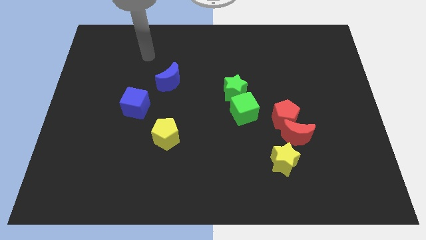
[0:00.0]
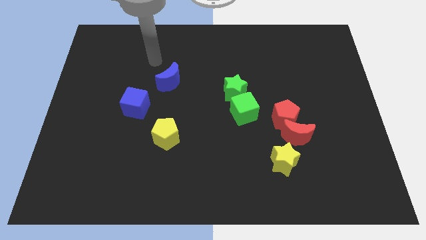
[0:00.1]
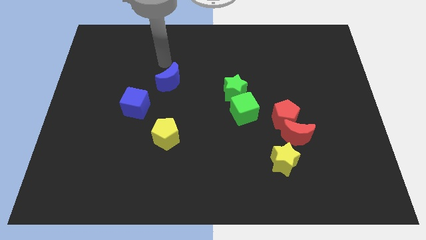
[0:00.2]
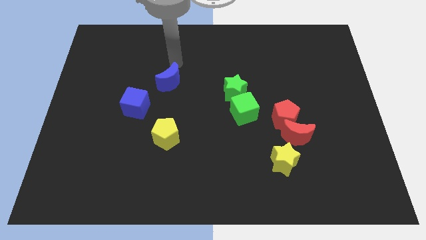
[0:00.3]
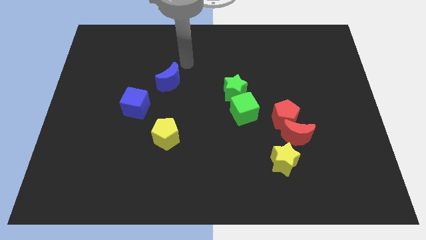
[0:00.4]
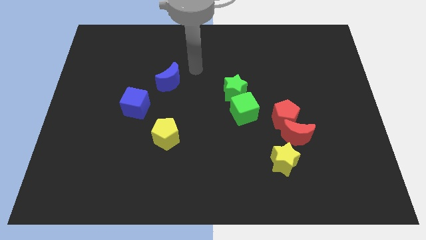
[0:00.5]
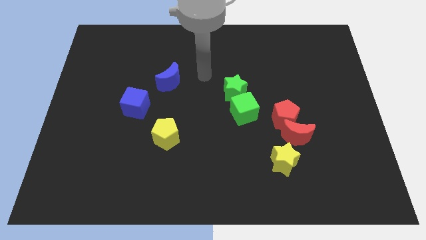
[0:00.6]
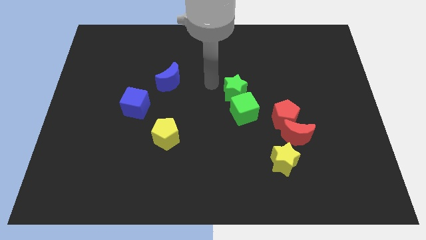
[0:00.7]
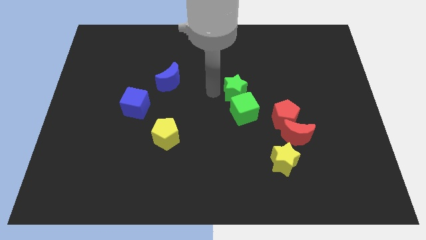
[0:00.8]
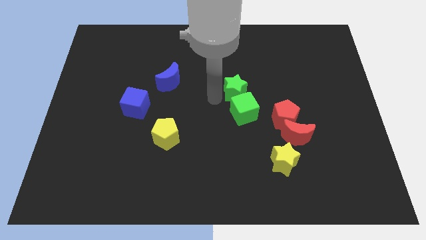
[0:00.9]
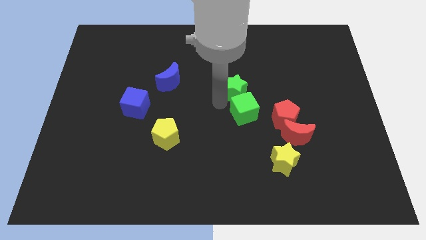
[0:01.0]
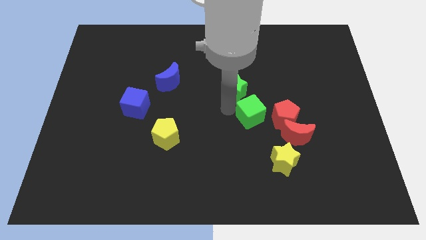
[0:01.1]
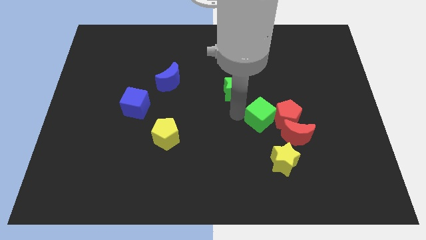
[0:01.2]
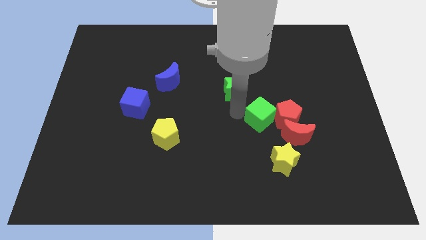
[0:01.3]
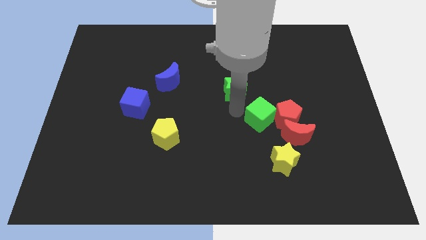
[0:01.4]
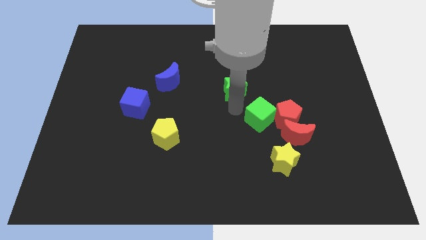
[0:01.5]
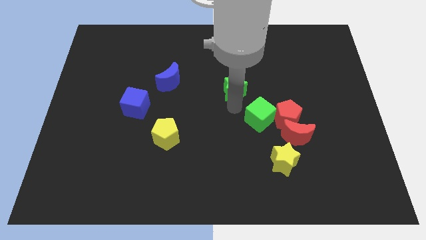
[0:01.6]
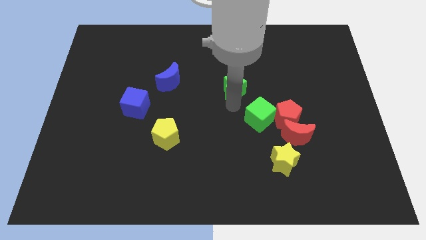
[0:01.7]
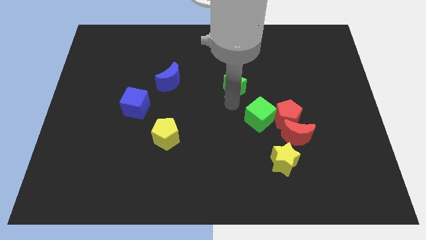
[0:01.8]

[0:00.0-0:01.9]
move the green star away from the green cube

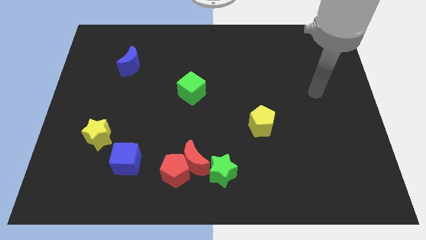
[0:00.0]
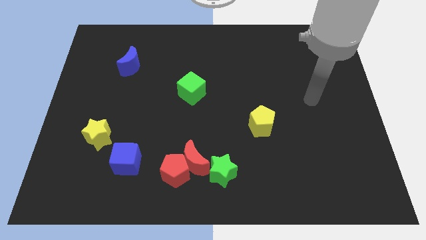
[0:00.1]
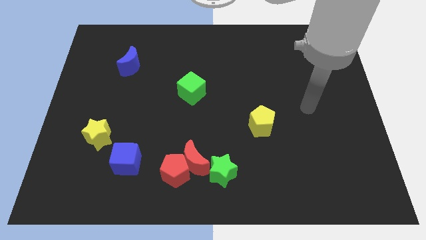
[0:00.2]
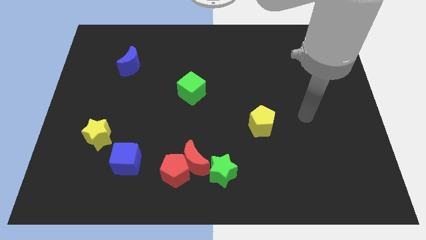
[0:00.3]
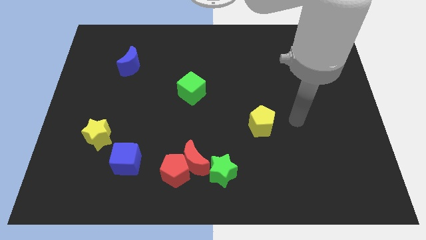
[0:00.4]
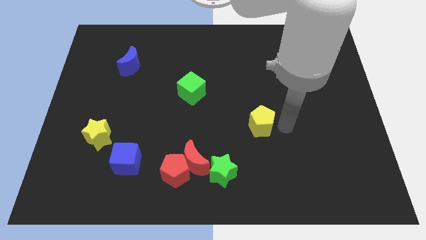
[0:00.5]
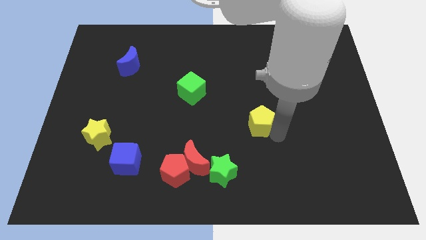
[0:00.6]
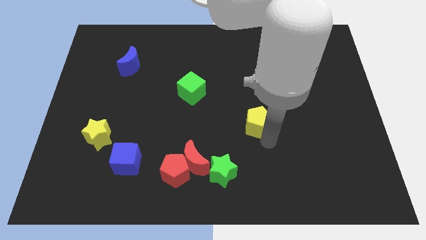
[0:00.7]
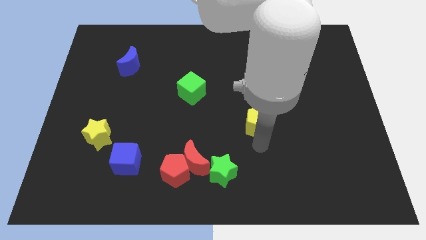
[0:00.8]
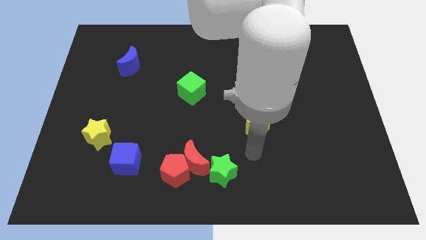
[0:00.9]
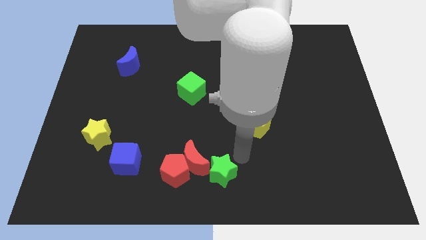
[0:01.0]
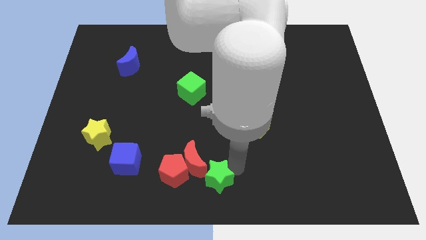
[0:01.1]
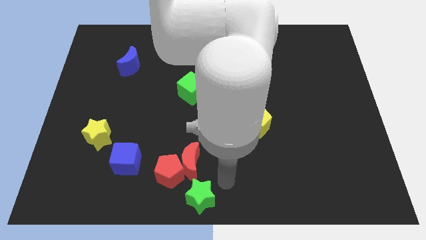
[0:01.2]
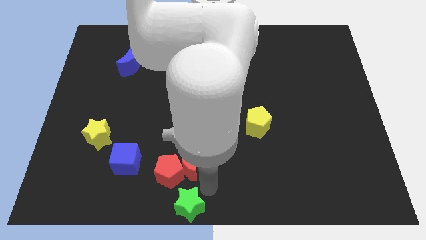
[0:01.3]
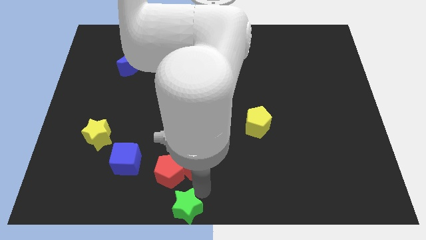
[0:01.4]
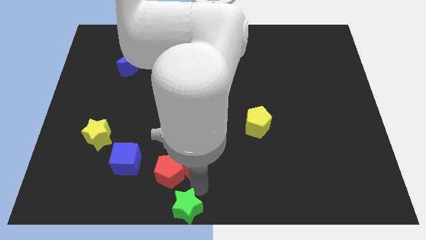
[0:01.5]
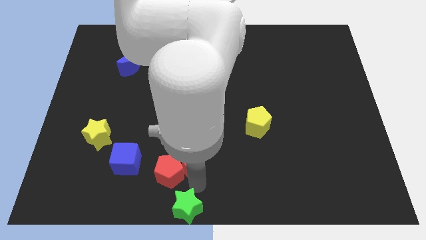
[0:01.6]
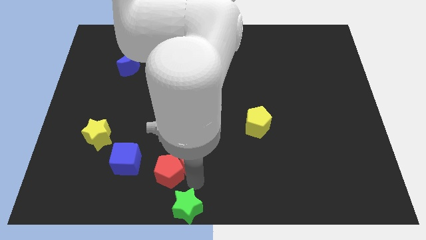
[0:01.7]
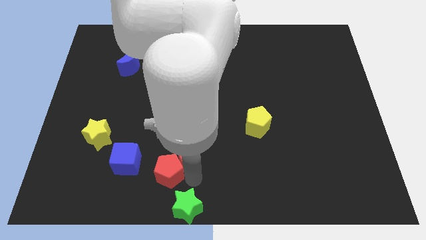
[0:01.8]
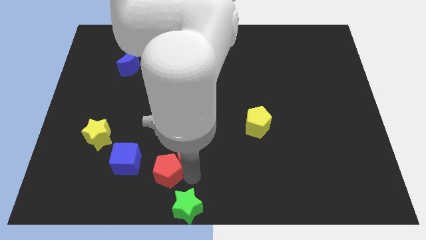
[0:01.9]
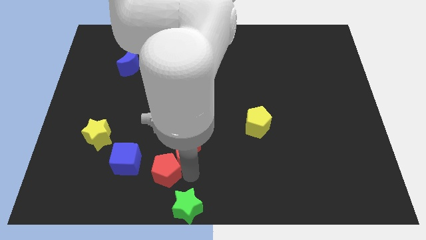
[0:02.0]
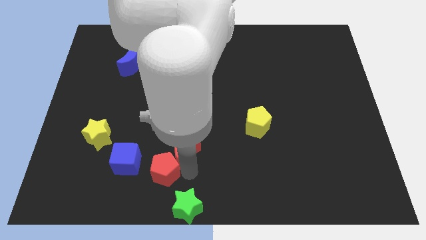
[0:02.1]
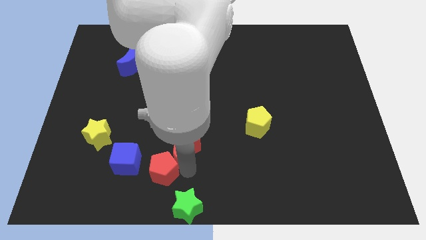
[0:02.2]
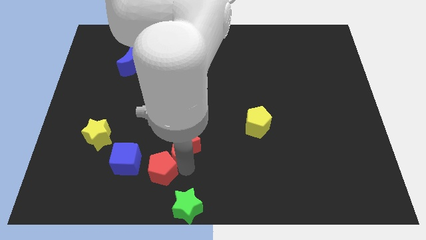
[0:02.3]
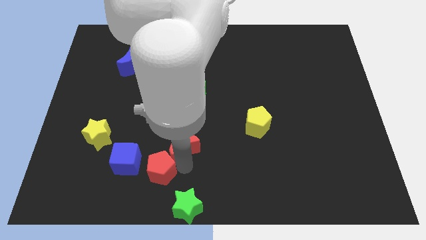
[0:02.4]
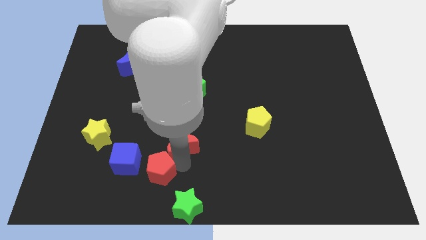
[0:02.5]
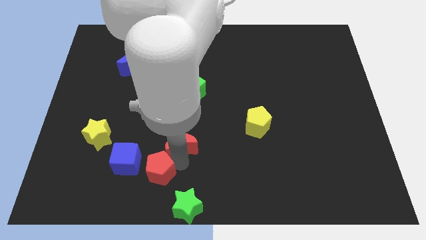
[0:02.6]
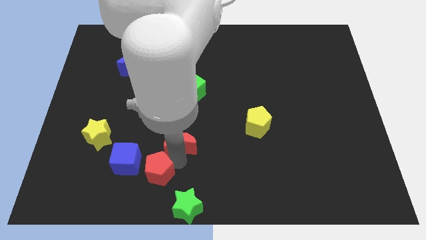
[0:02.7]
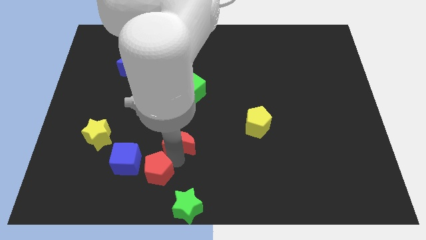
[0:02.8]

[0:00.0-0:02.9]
pull the red moon apart from the red pentagon and green star

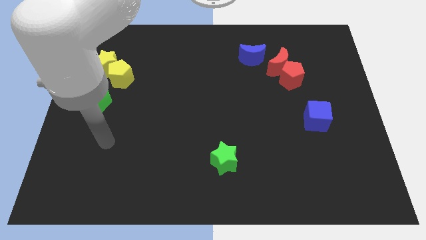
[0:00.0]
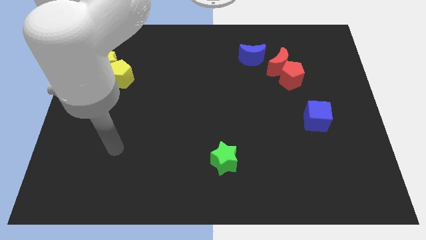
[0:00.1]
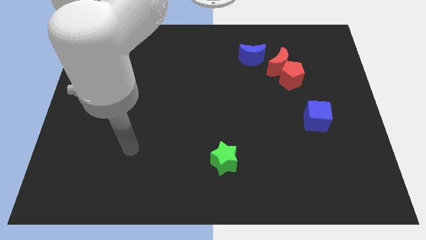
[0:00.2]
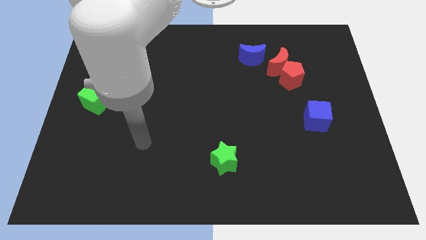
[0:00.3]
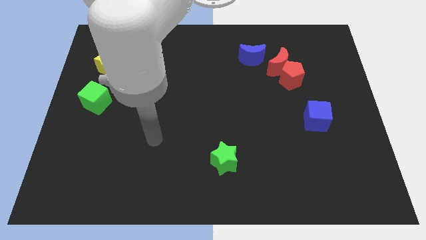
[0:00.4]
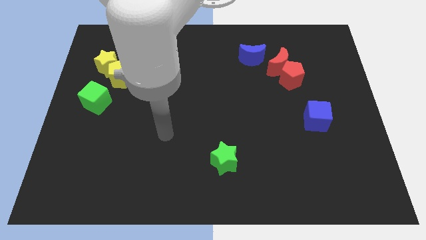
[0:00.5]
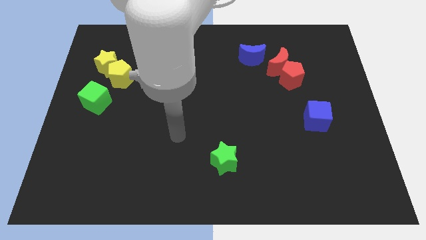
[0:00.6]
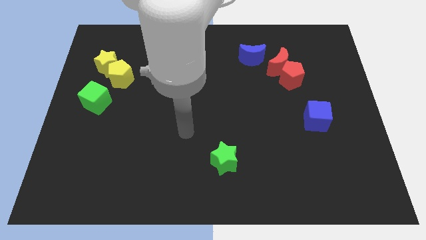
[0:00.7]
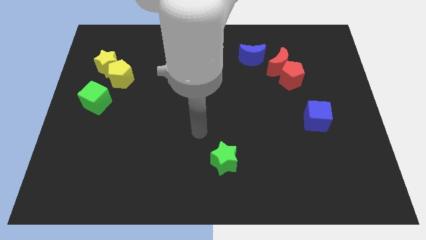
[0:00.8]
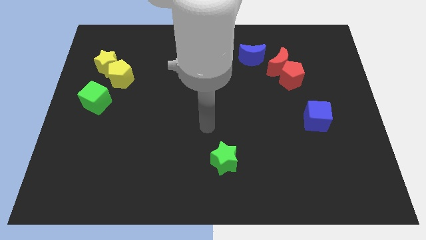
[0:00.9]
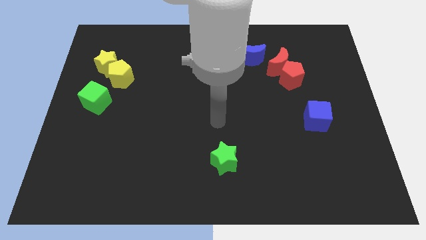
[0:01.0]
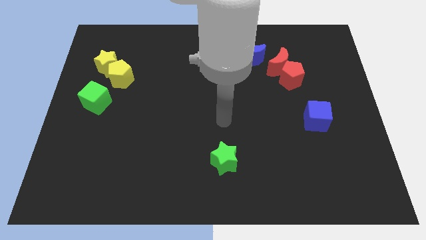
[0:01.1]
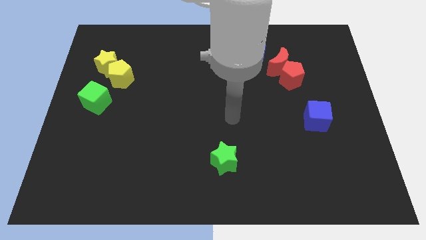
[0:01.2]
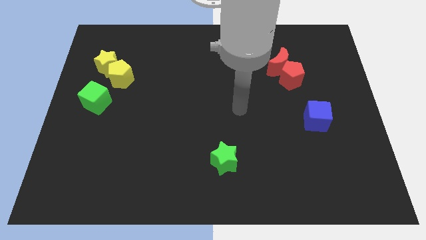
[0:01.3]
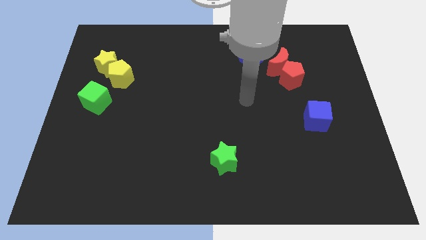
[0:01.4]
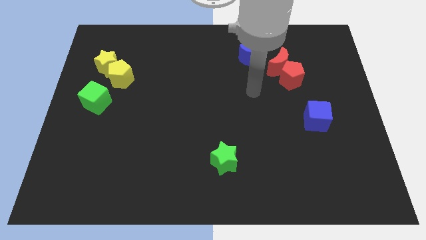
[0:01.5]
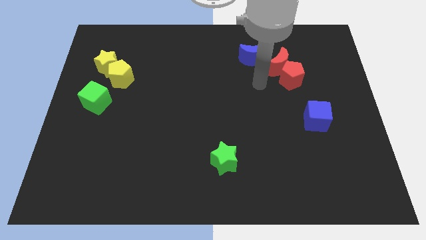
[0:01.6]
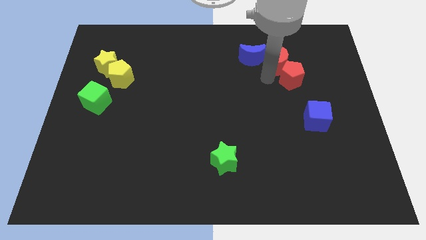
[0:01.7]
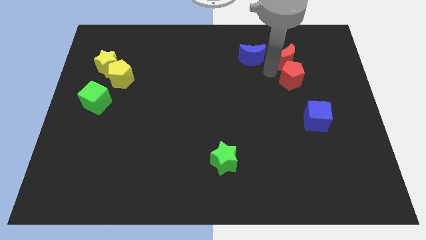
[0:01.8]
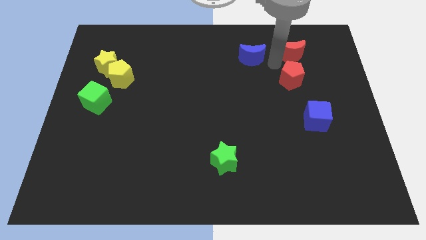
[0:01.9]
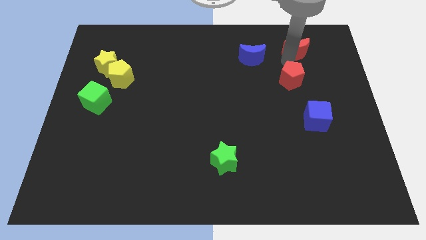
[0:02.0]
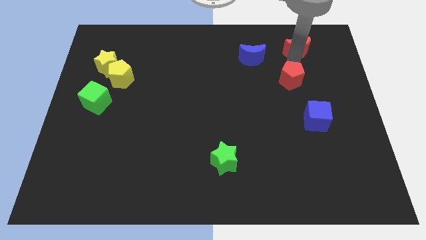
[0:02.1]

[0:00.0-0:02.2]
move the red pentagon away from the red moon

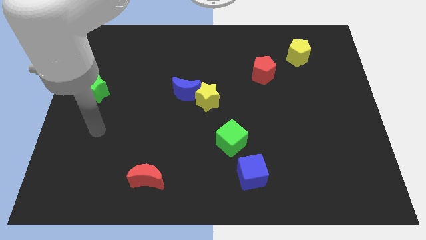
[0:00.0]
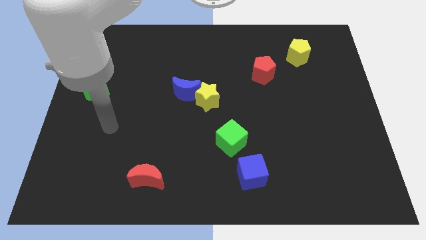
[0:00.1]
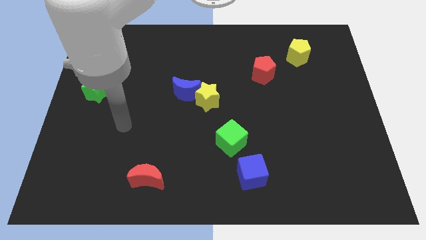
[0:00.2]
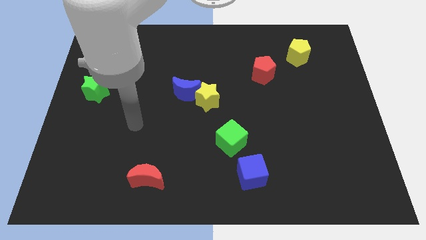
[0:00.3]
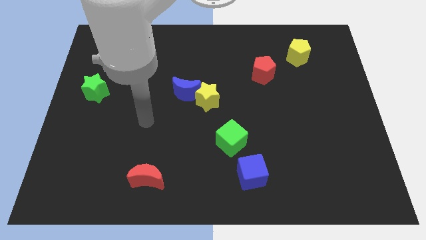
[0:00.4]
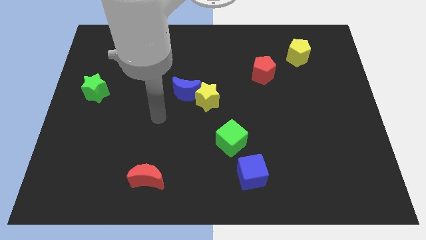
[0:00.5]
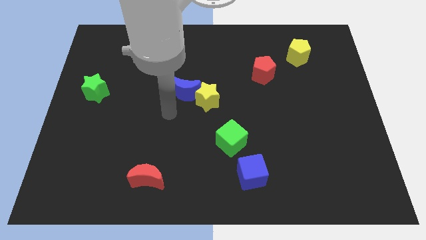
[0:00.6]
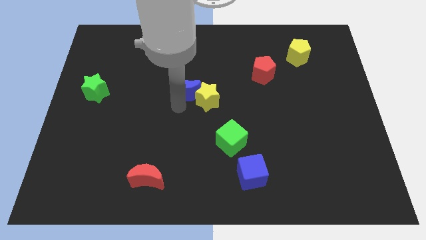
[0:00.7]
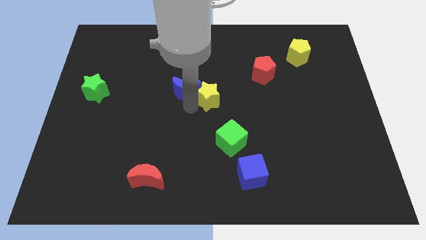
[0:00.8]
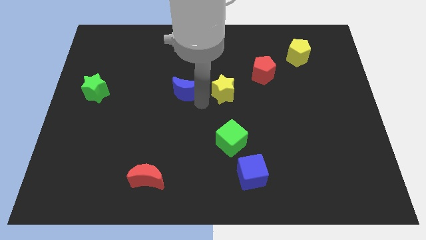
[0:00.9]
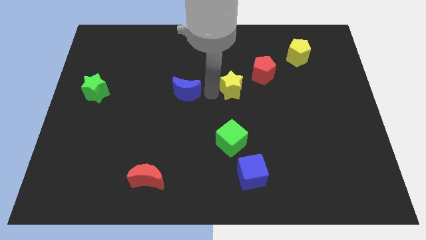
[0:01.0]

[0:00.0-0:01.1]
separate the blue moon from the yellow star

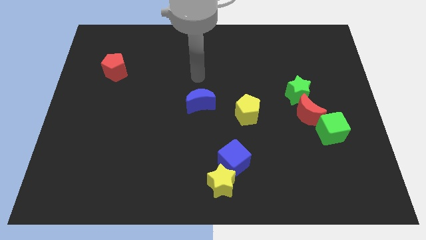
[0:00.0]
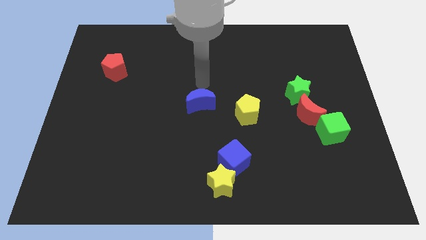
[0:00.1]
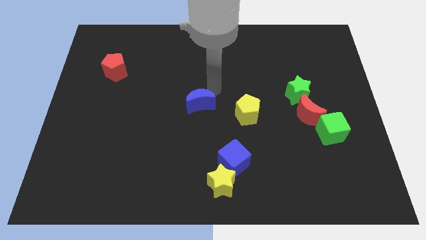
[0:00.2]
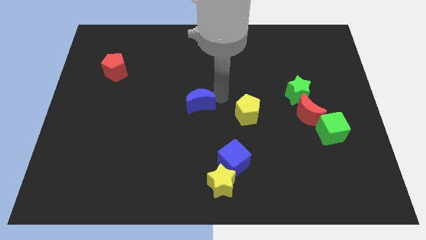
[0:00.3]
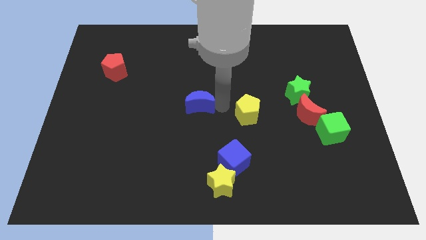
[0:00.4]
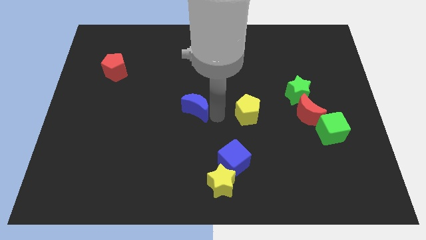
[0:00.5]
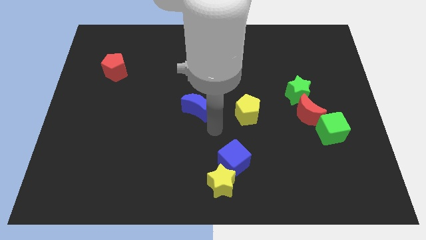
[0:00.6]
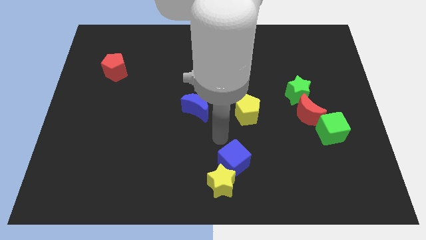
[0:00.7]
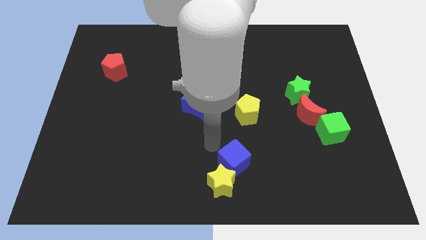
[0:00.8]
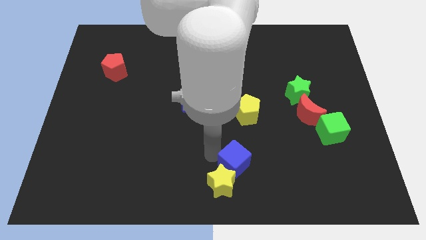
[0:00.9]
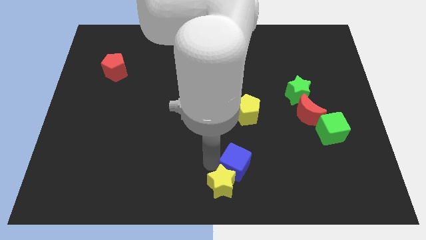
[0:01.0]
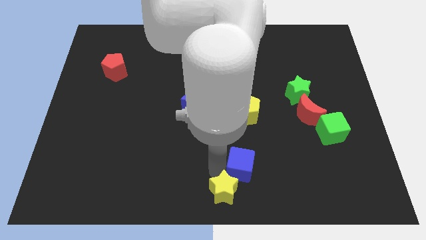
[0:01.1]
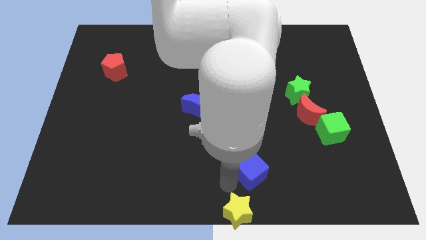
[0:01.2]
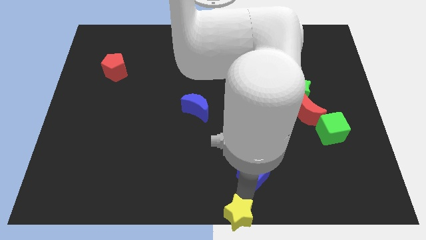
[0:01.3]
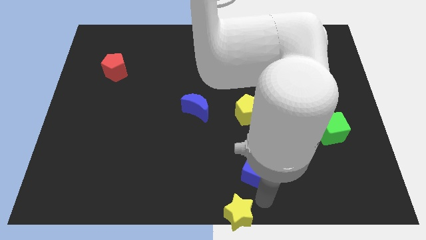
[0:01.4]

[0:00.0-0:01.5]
move the blue cube away from the yellow star
